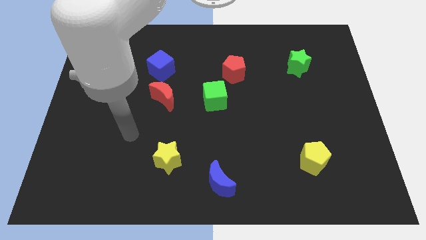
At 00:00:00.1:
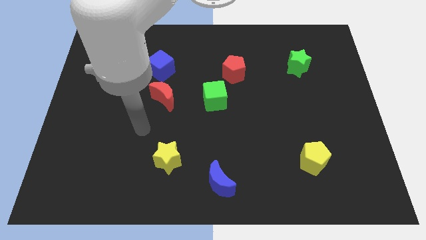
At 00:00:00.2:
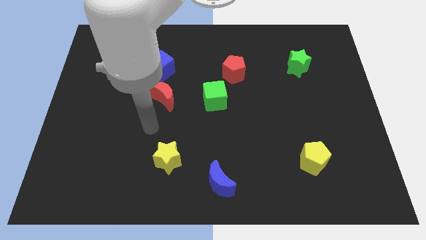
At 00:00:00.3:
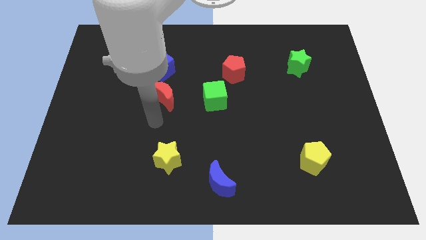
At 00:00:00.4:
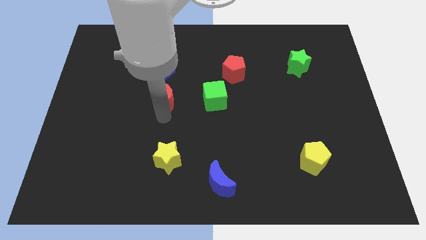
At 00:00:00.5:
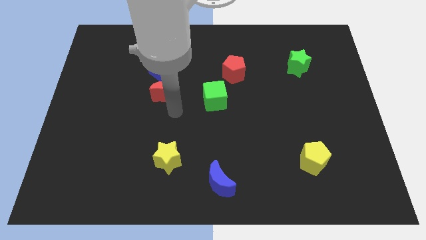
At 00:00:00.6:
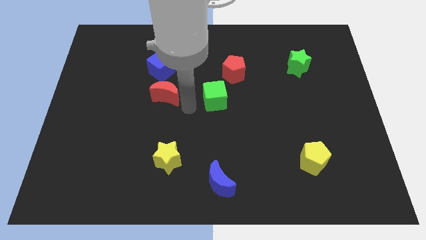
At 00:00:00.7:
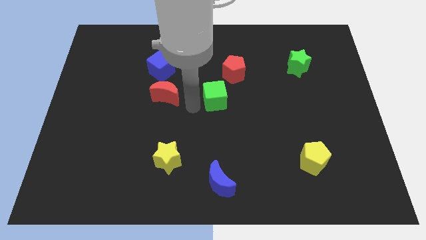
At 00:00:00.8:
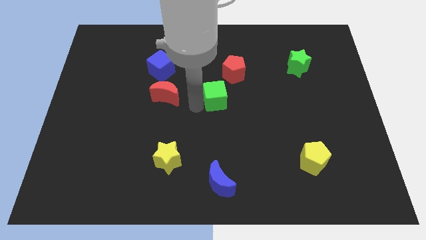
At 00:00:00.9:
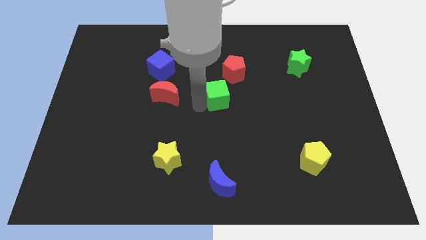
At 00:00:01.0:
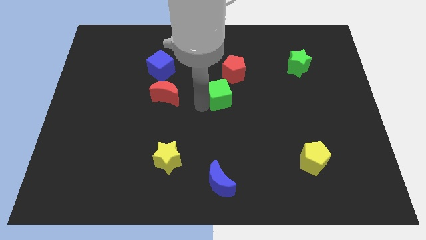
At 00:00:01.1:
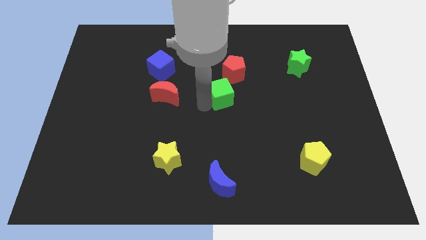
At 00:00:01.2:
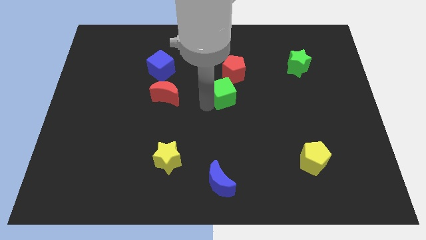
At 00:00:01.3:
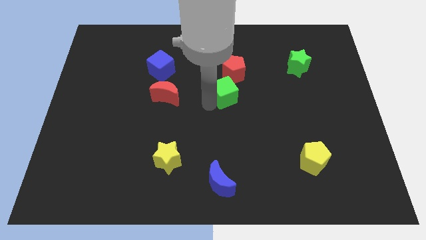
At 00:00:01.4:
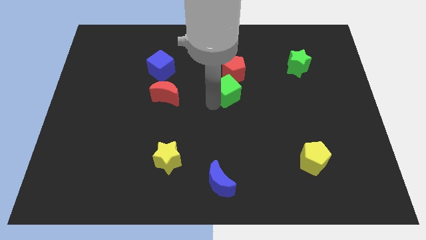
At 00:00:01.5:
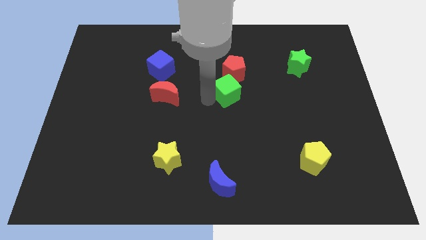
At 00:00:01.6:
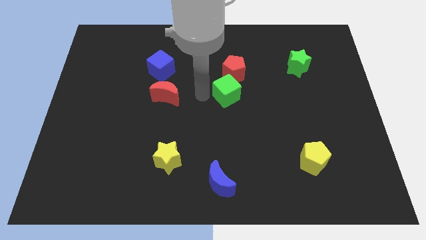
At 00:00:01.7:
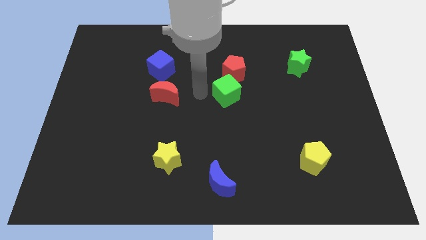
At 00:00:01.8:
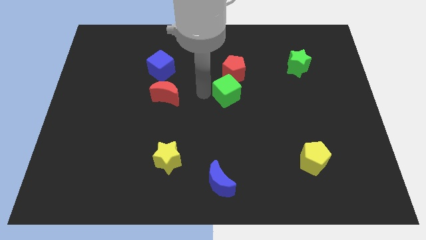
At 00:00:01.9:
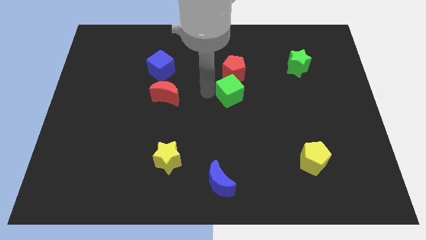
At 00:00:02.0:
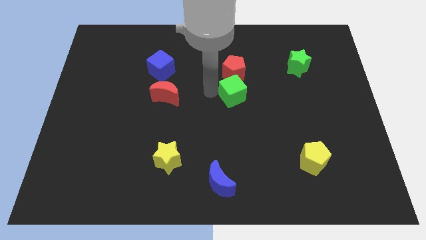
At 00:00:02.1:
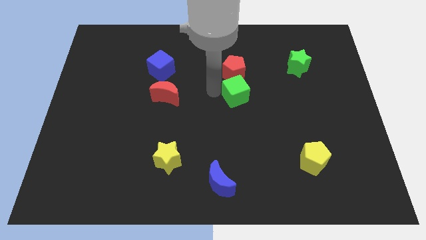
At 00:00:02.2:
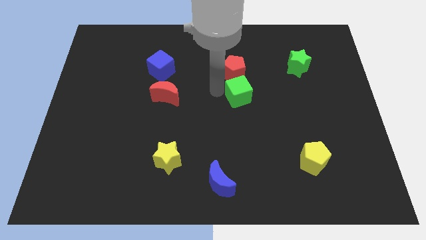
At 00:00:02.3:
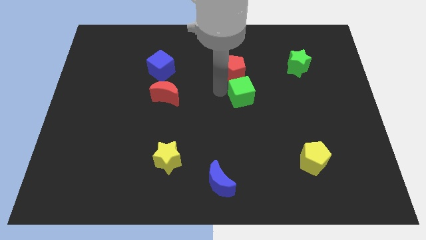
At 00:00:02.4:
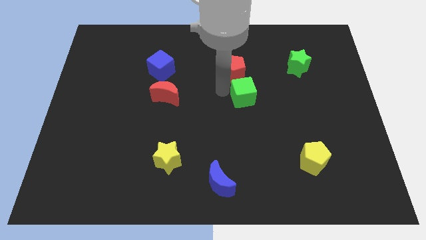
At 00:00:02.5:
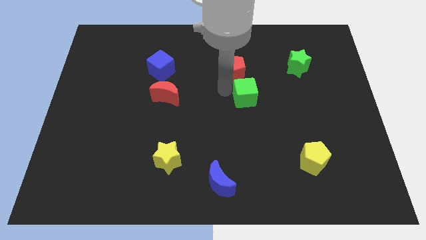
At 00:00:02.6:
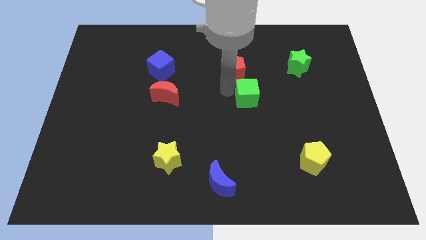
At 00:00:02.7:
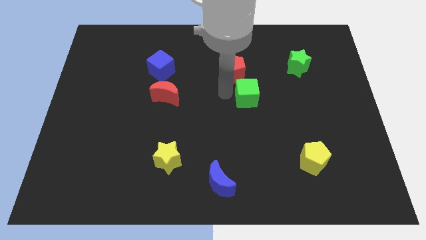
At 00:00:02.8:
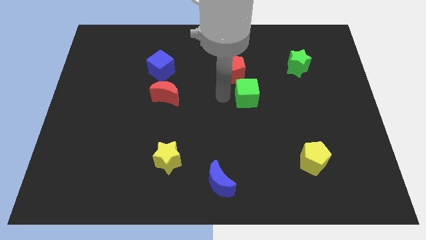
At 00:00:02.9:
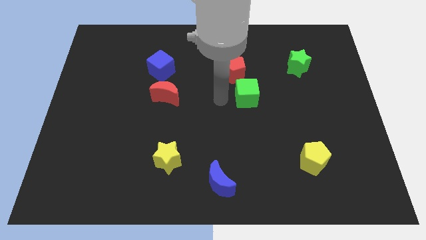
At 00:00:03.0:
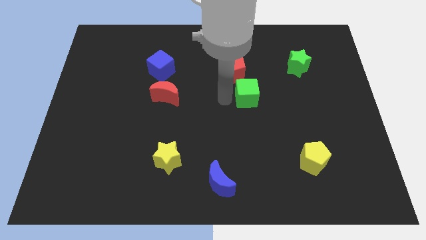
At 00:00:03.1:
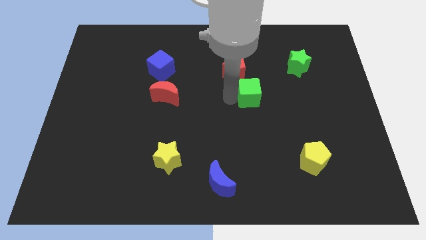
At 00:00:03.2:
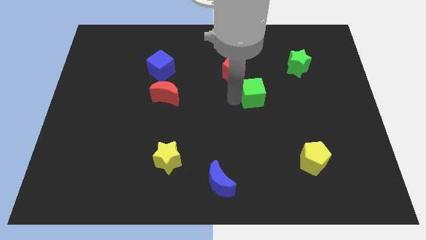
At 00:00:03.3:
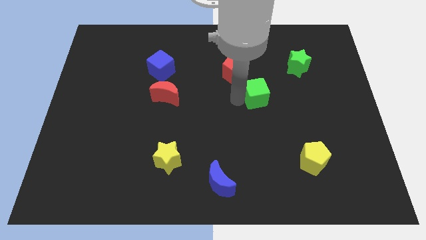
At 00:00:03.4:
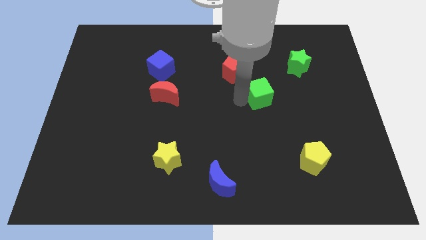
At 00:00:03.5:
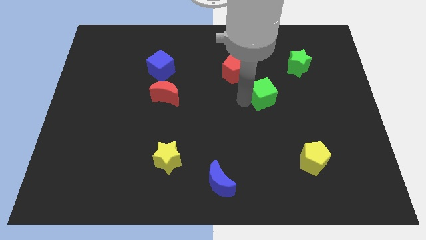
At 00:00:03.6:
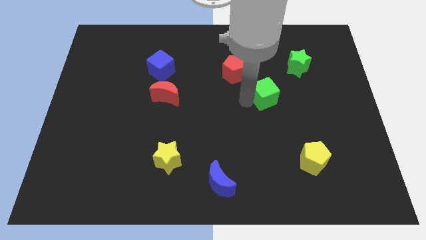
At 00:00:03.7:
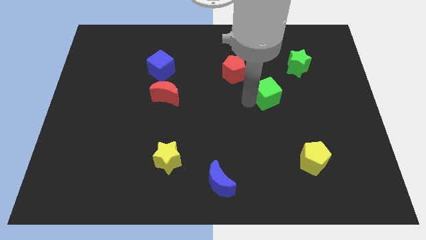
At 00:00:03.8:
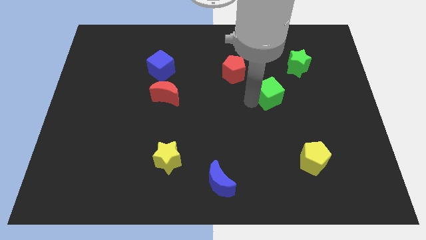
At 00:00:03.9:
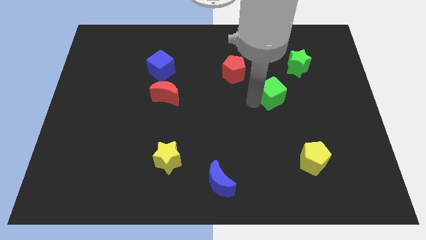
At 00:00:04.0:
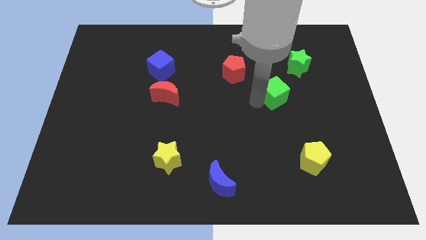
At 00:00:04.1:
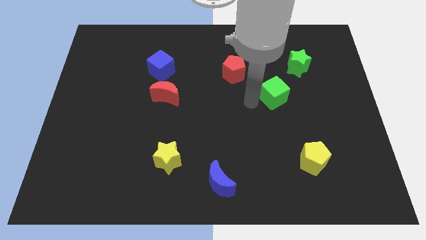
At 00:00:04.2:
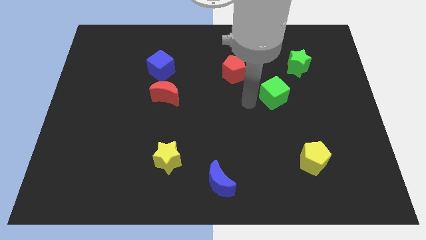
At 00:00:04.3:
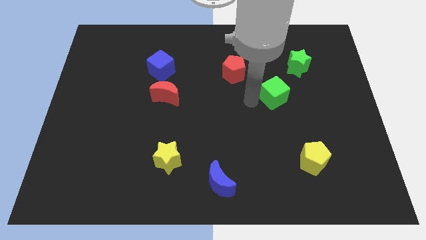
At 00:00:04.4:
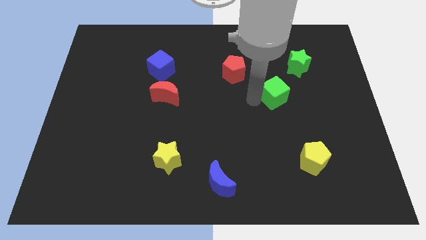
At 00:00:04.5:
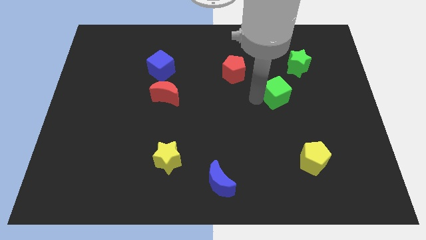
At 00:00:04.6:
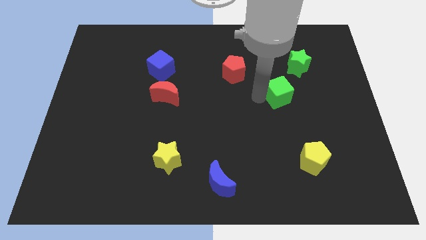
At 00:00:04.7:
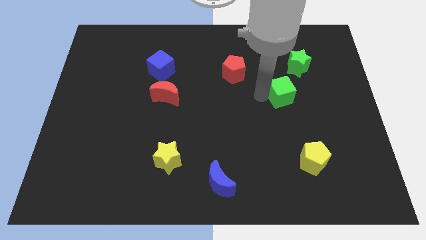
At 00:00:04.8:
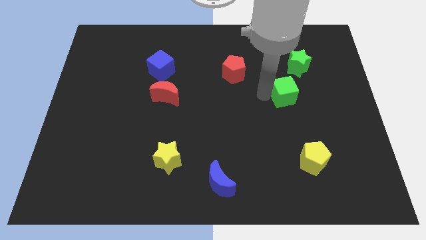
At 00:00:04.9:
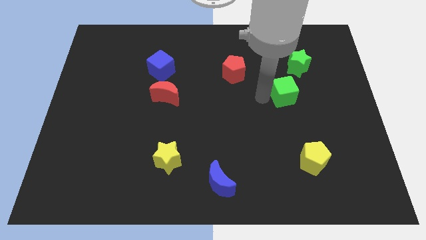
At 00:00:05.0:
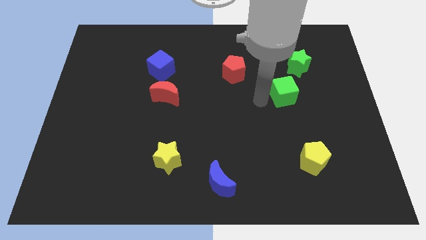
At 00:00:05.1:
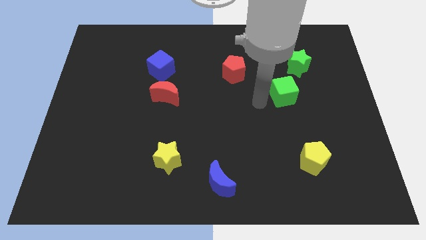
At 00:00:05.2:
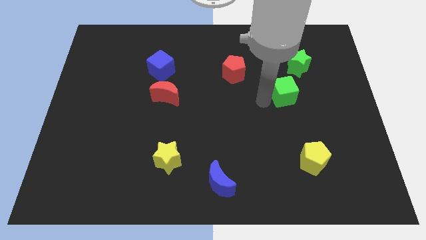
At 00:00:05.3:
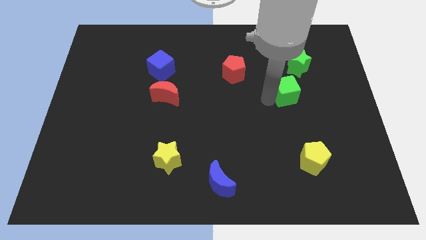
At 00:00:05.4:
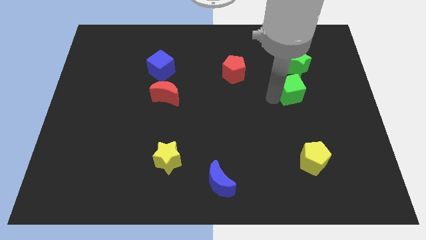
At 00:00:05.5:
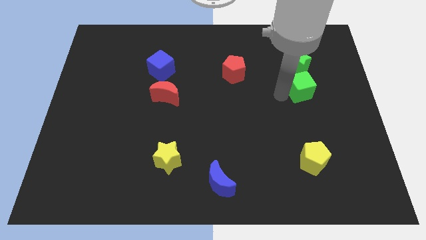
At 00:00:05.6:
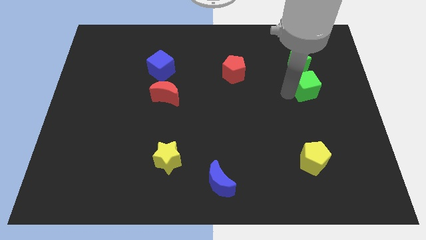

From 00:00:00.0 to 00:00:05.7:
push the green cube to the bottom right side of the green star

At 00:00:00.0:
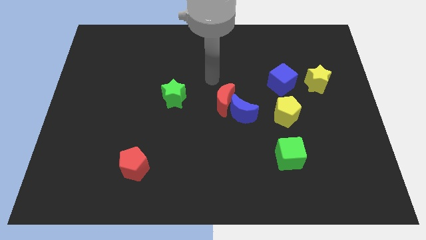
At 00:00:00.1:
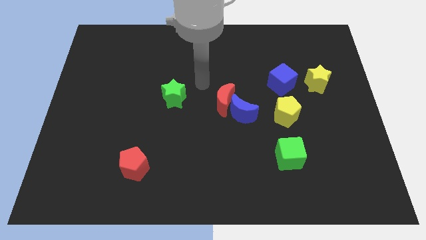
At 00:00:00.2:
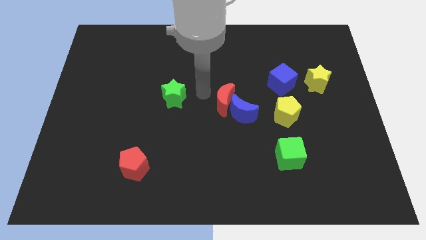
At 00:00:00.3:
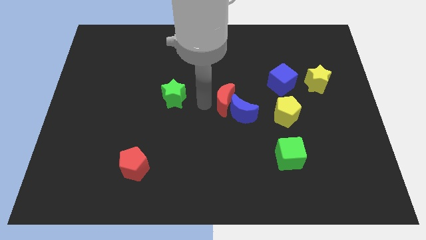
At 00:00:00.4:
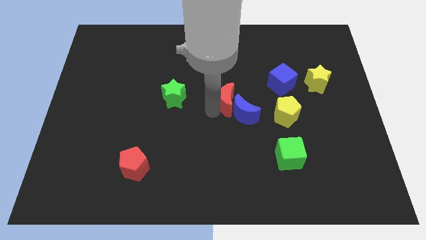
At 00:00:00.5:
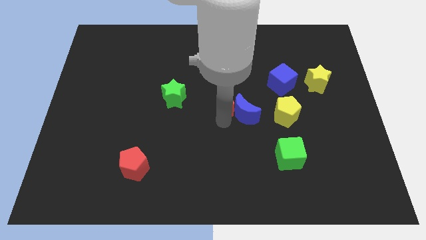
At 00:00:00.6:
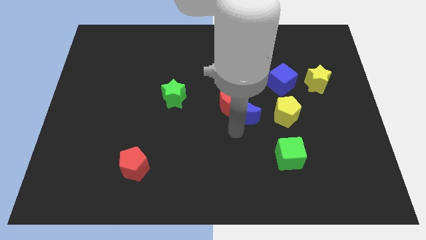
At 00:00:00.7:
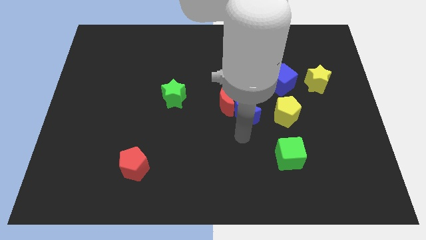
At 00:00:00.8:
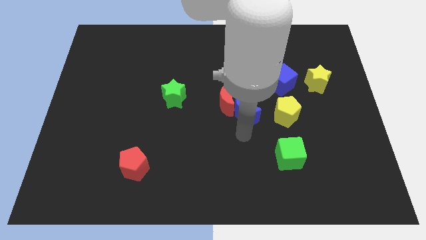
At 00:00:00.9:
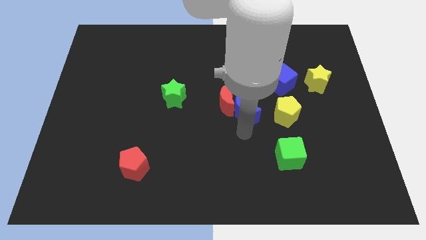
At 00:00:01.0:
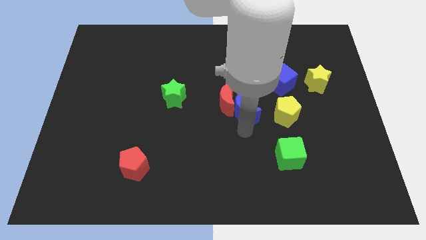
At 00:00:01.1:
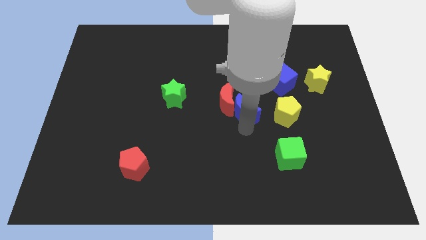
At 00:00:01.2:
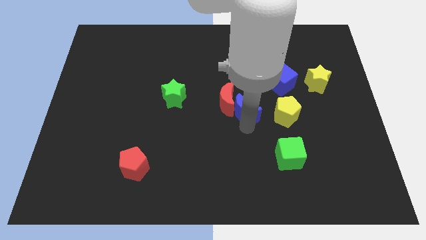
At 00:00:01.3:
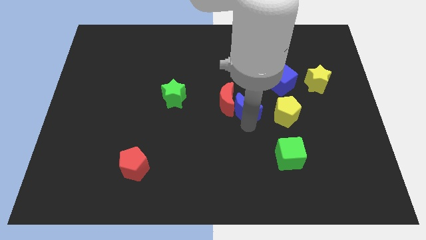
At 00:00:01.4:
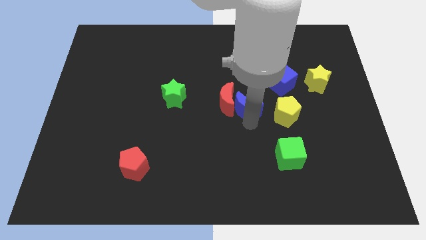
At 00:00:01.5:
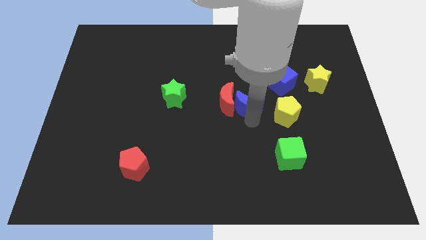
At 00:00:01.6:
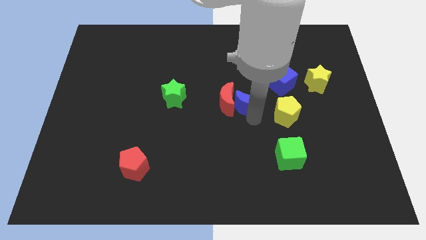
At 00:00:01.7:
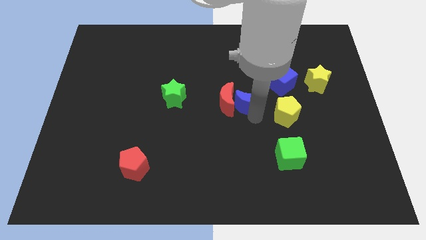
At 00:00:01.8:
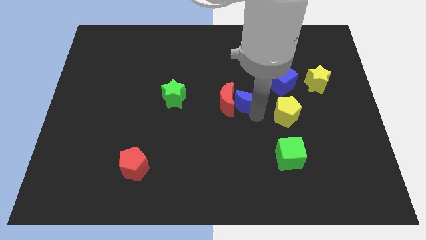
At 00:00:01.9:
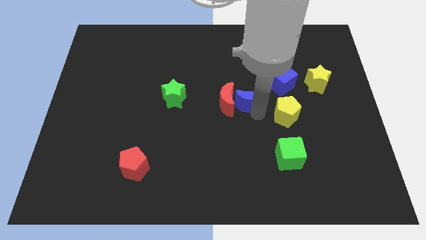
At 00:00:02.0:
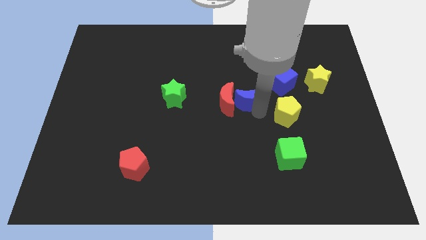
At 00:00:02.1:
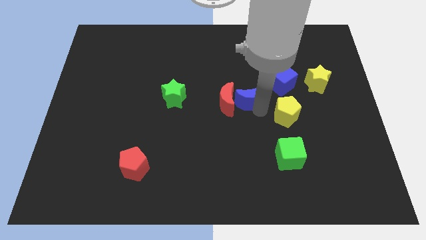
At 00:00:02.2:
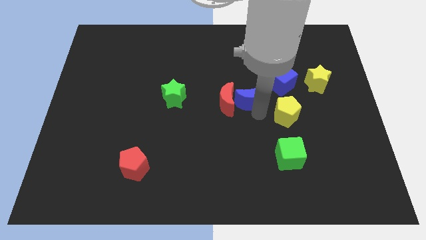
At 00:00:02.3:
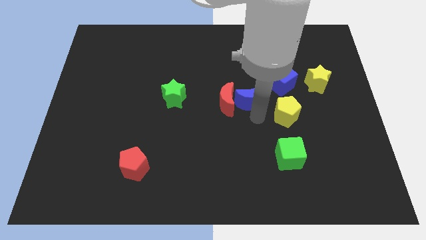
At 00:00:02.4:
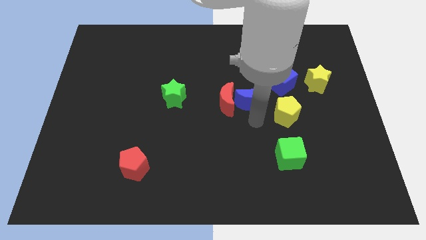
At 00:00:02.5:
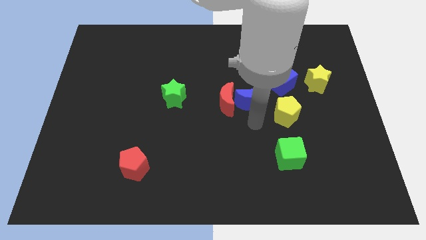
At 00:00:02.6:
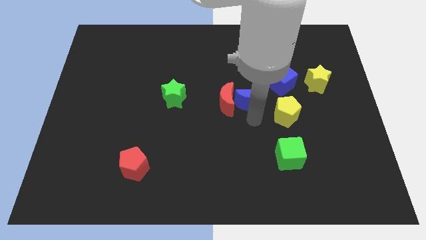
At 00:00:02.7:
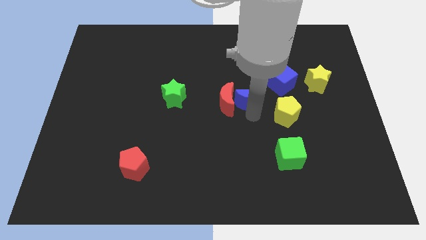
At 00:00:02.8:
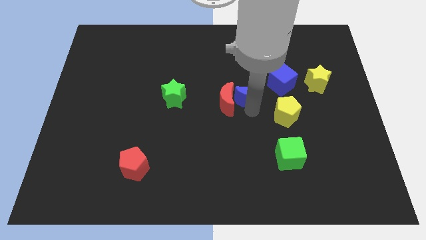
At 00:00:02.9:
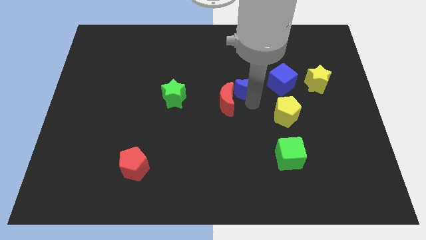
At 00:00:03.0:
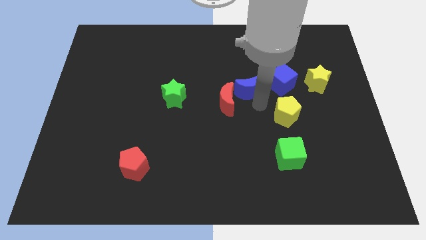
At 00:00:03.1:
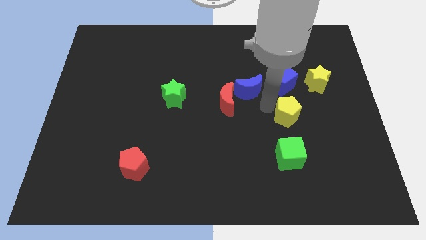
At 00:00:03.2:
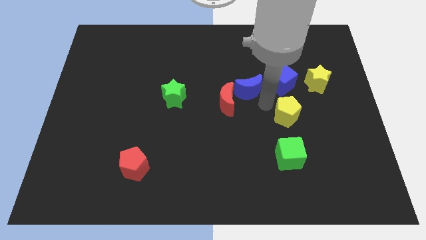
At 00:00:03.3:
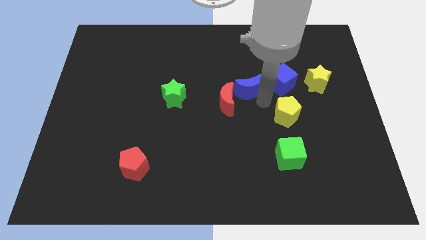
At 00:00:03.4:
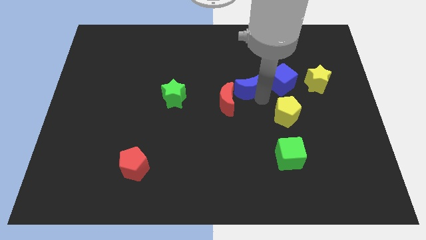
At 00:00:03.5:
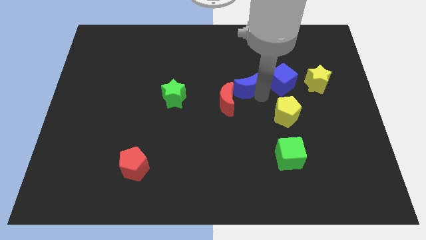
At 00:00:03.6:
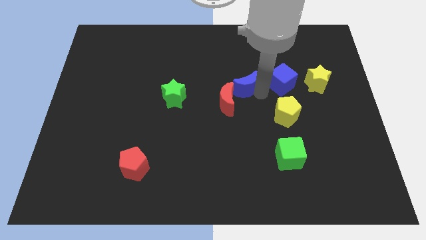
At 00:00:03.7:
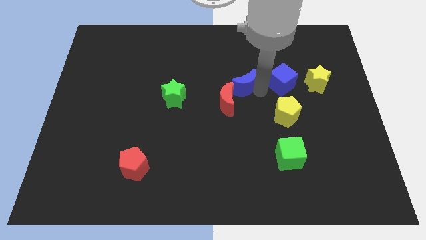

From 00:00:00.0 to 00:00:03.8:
slide the blue moon above the red moon
